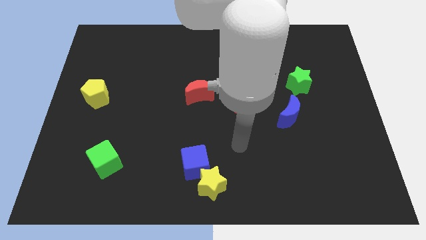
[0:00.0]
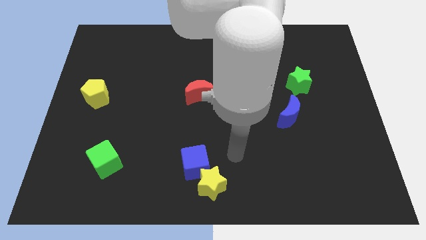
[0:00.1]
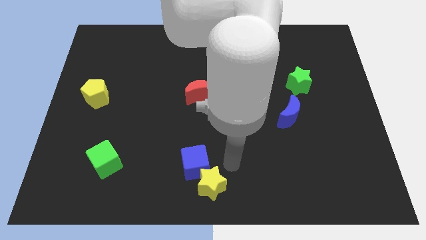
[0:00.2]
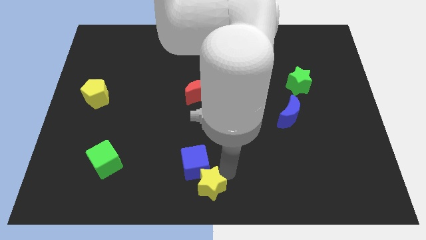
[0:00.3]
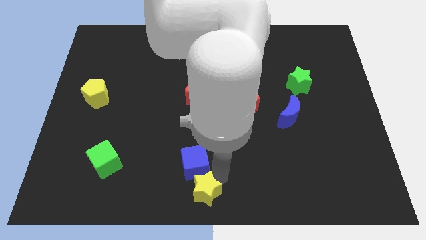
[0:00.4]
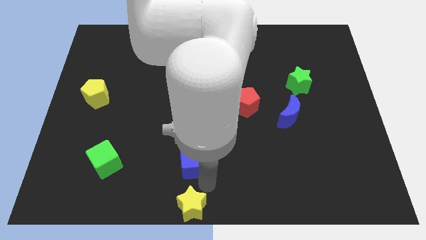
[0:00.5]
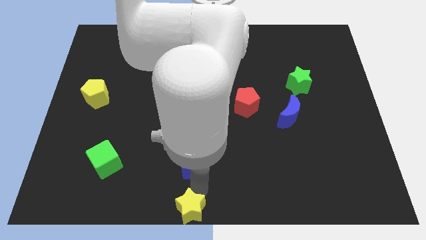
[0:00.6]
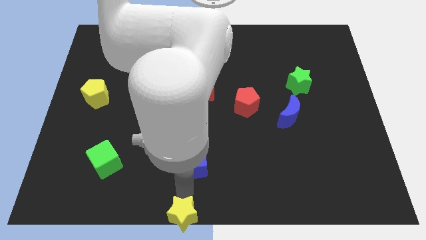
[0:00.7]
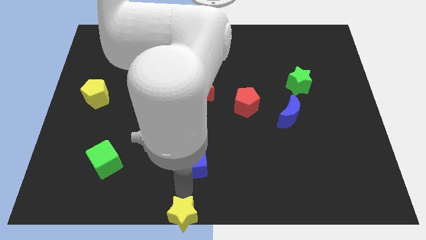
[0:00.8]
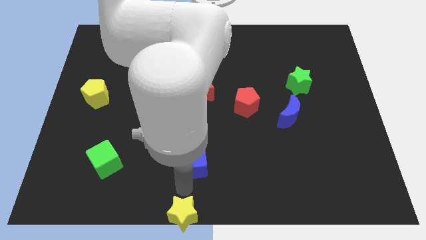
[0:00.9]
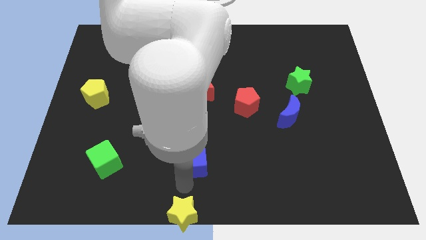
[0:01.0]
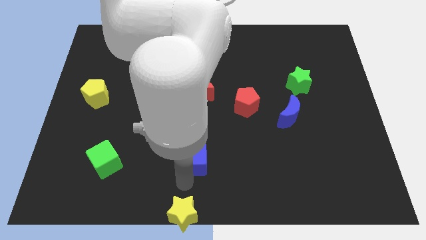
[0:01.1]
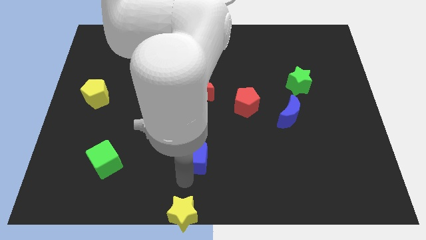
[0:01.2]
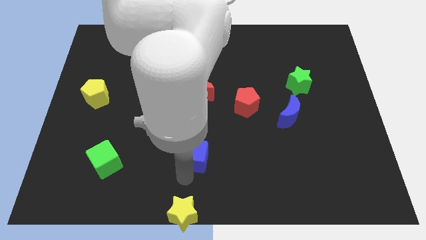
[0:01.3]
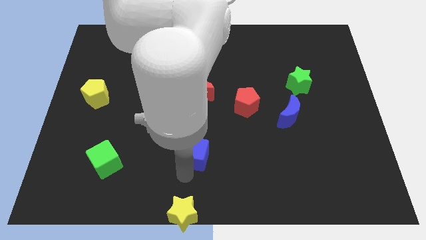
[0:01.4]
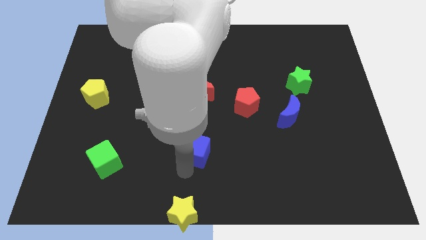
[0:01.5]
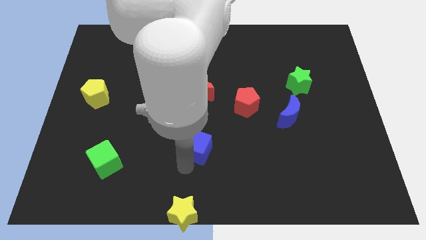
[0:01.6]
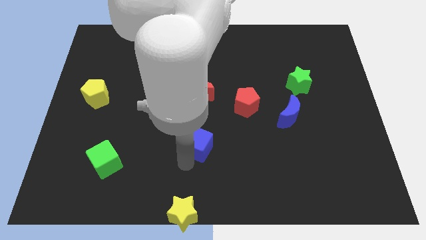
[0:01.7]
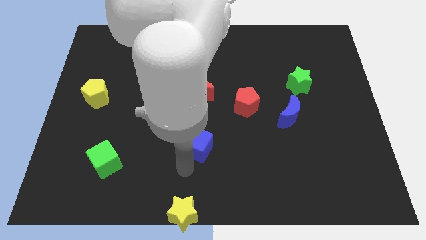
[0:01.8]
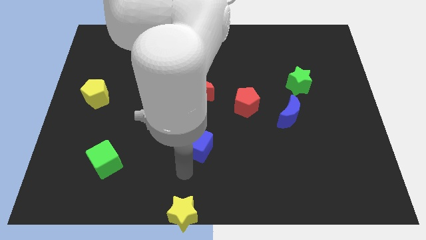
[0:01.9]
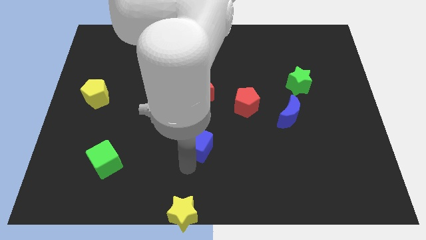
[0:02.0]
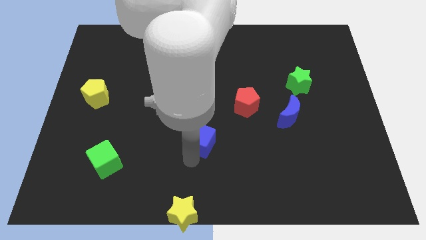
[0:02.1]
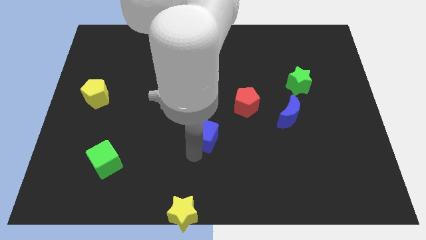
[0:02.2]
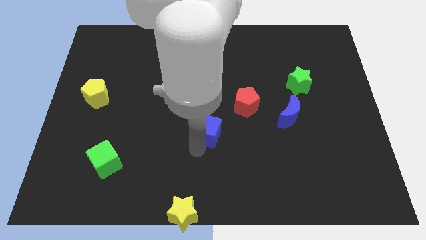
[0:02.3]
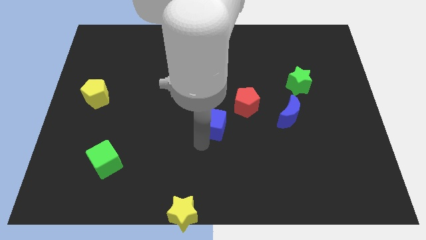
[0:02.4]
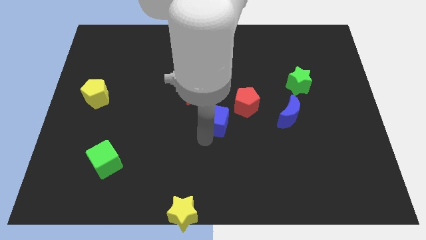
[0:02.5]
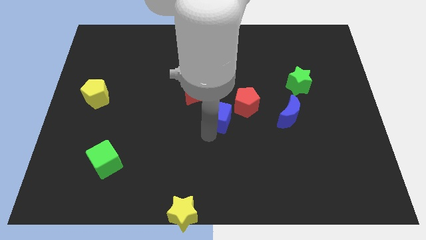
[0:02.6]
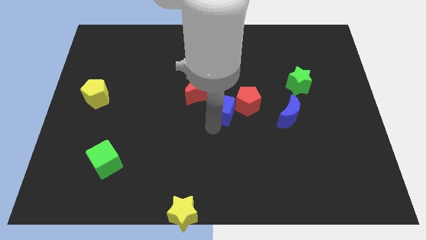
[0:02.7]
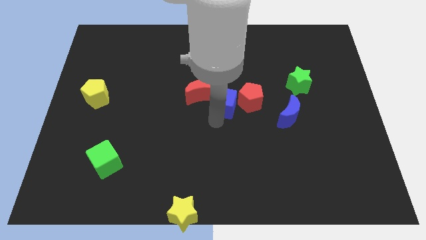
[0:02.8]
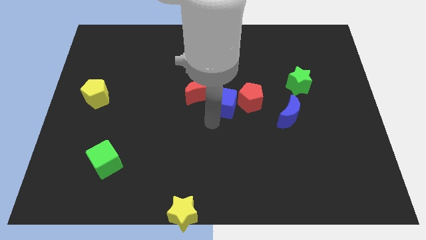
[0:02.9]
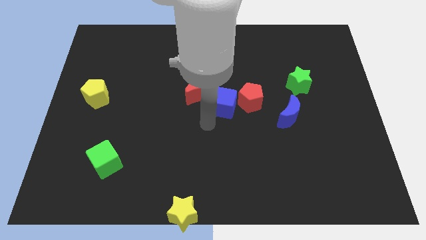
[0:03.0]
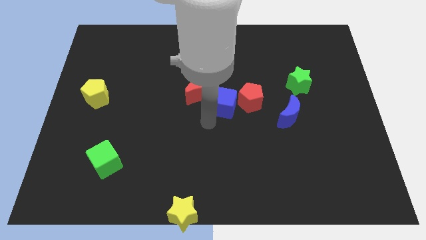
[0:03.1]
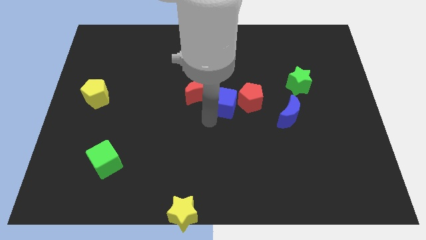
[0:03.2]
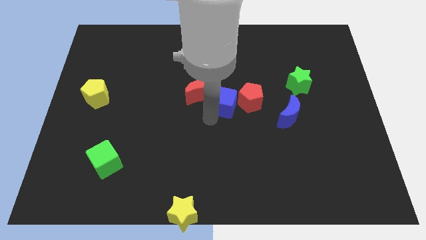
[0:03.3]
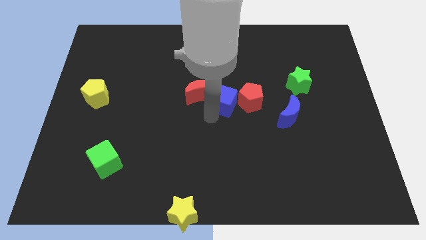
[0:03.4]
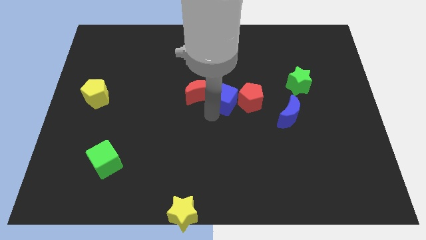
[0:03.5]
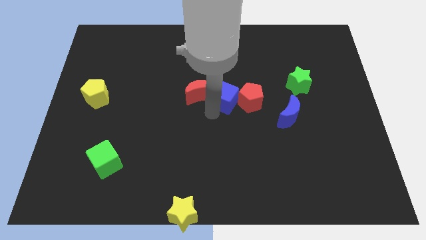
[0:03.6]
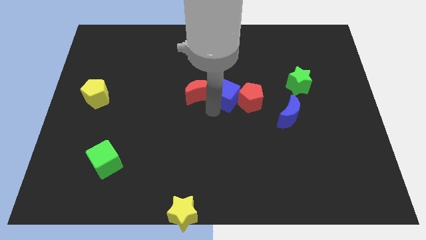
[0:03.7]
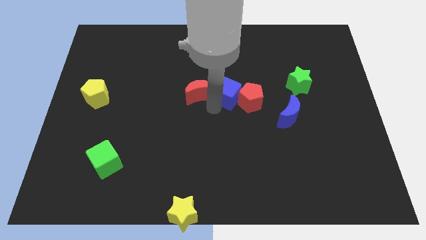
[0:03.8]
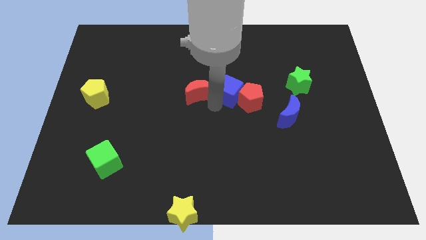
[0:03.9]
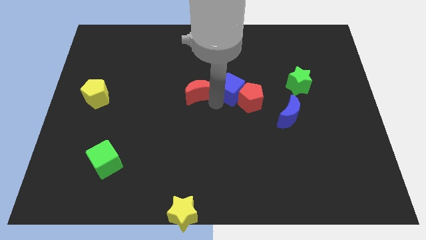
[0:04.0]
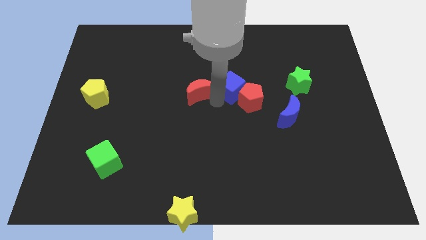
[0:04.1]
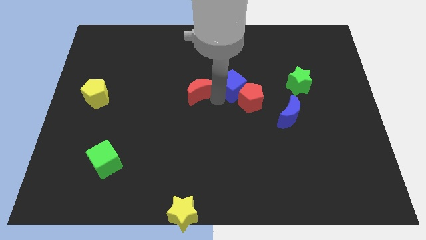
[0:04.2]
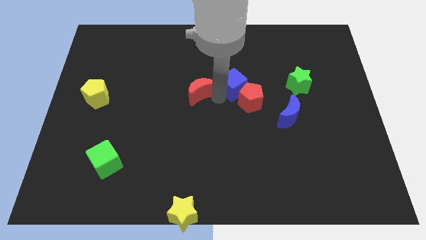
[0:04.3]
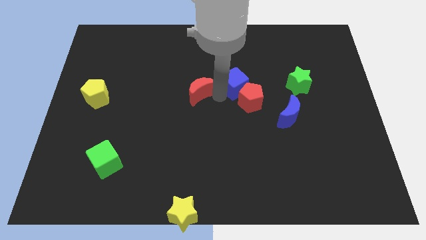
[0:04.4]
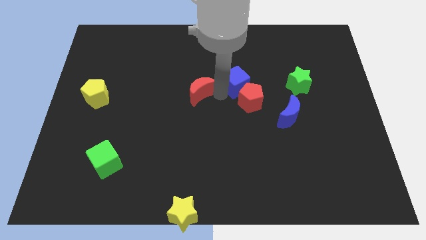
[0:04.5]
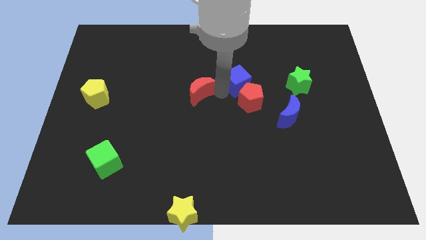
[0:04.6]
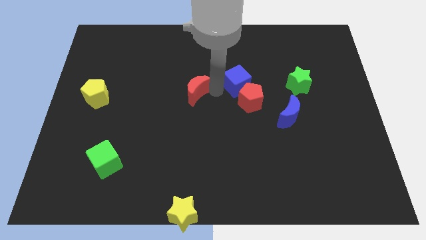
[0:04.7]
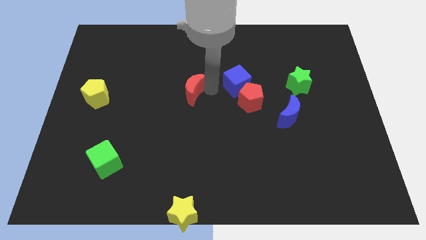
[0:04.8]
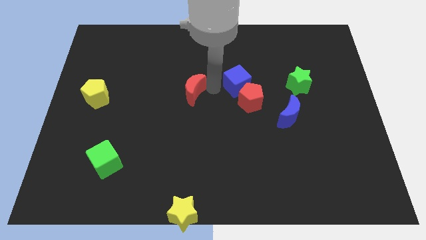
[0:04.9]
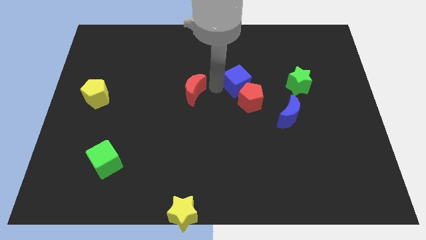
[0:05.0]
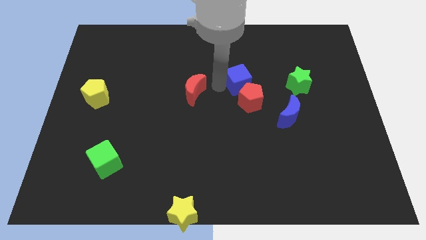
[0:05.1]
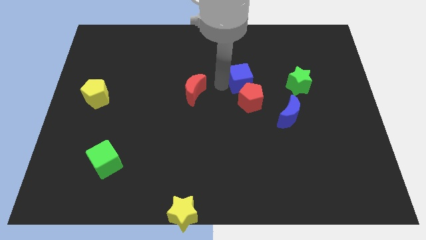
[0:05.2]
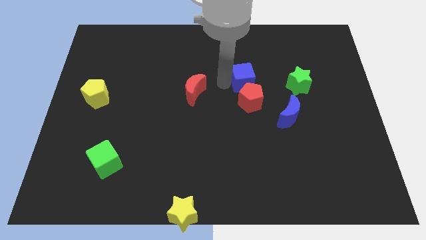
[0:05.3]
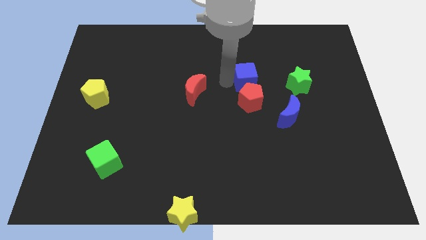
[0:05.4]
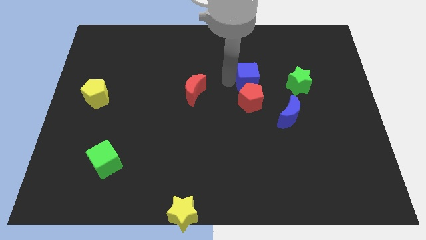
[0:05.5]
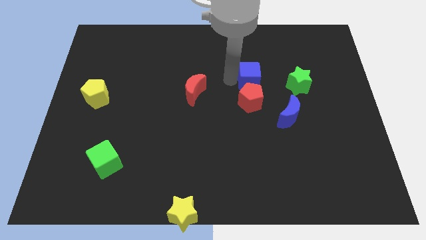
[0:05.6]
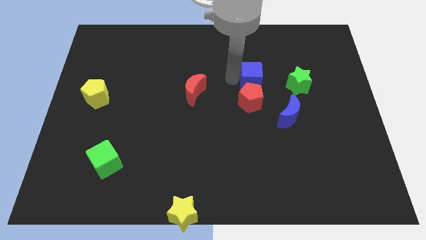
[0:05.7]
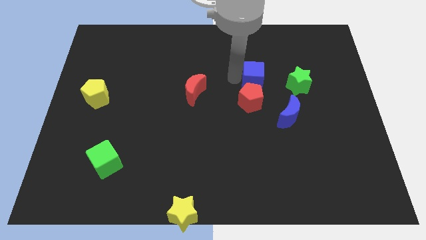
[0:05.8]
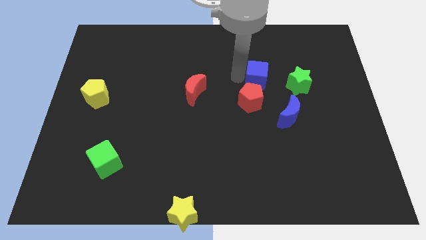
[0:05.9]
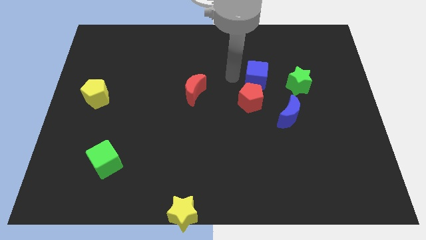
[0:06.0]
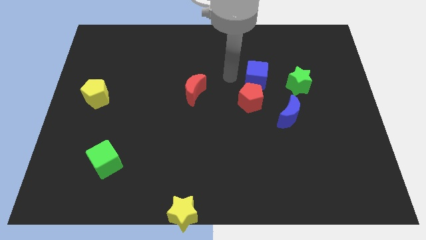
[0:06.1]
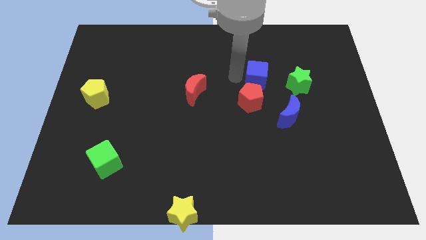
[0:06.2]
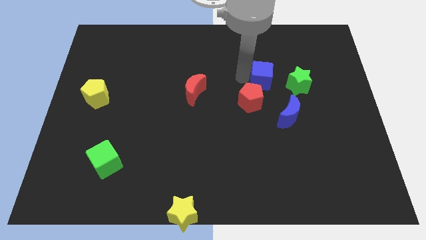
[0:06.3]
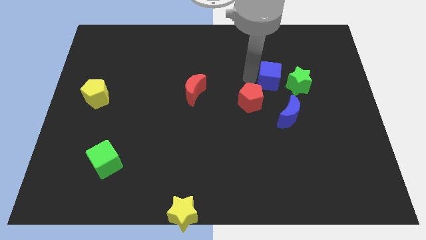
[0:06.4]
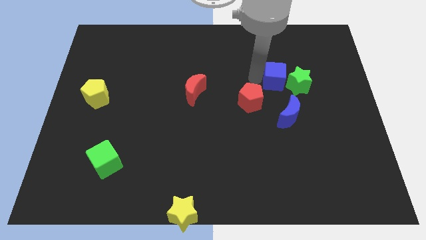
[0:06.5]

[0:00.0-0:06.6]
move the blue cube close to the green star
